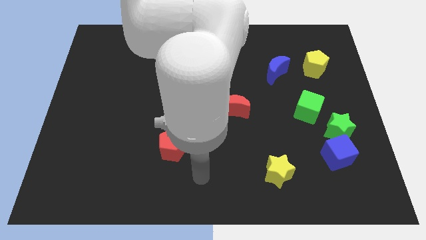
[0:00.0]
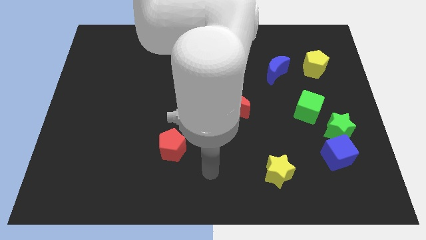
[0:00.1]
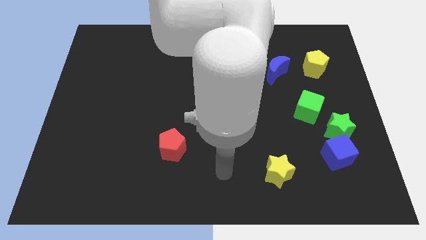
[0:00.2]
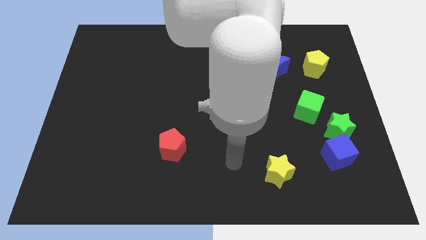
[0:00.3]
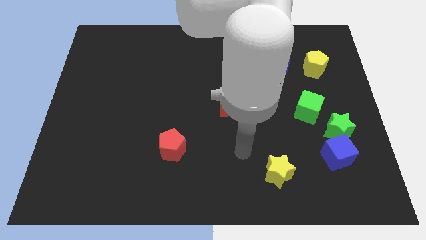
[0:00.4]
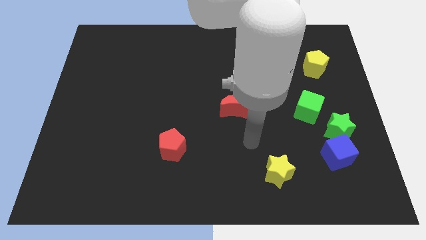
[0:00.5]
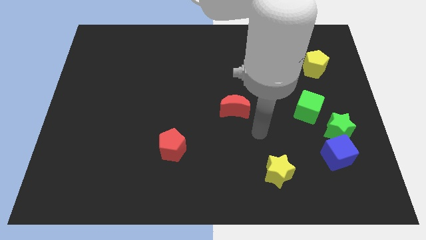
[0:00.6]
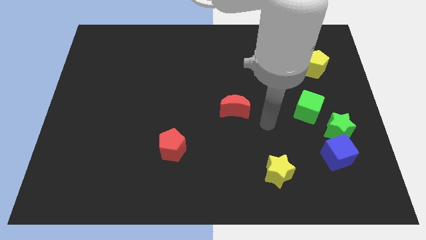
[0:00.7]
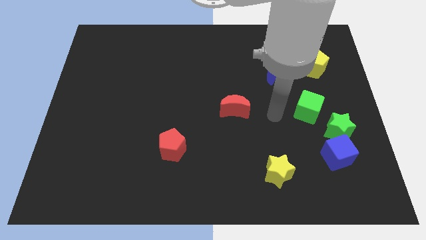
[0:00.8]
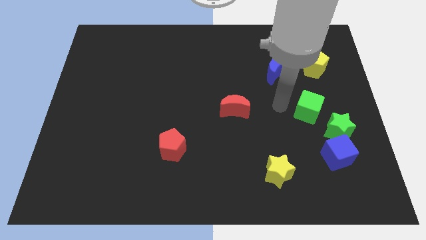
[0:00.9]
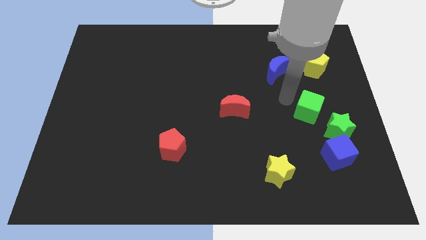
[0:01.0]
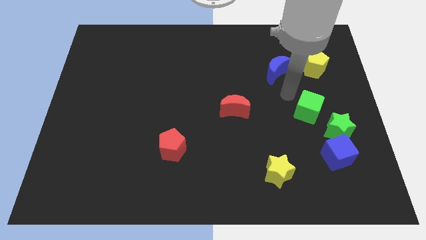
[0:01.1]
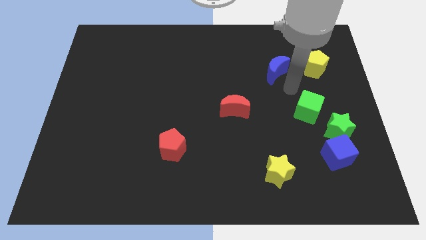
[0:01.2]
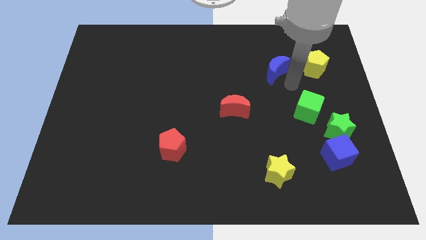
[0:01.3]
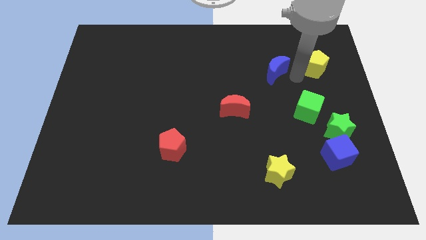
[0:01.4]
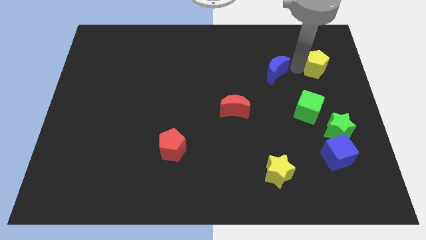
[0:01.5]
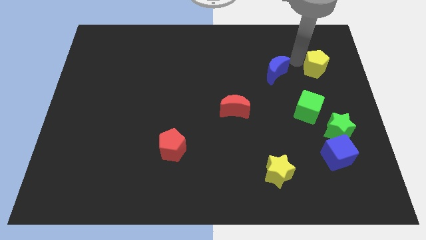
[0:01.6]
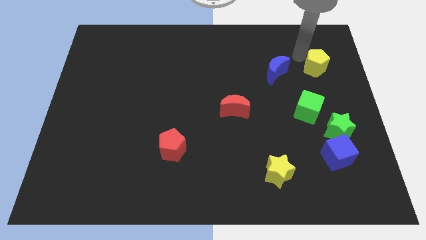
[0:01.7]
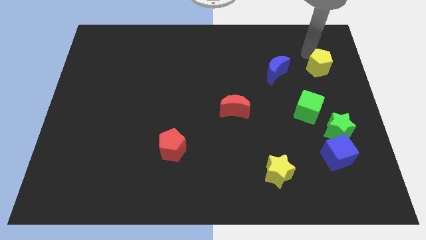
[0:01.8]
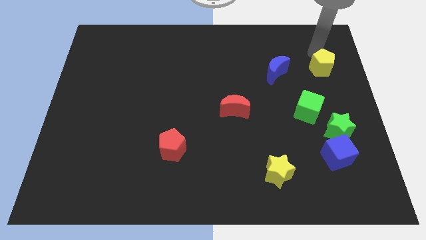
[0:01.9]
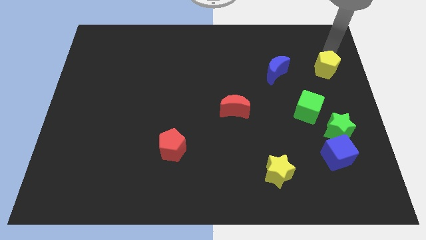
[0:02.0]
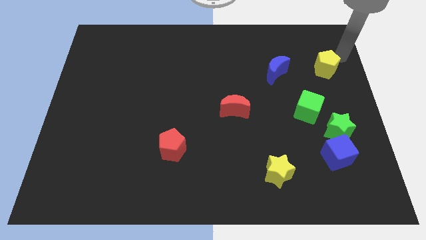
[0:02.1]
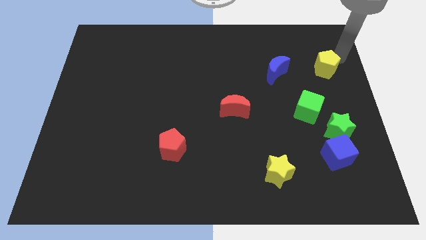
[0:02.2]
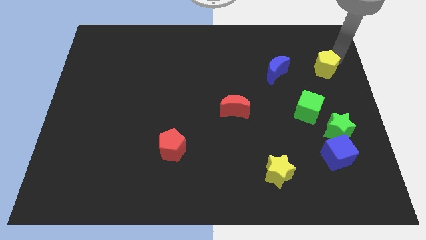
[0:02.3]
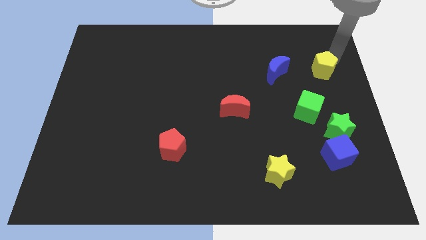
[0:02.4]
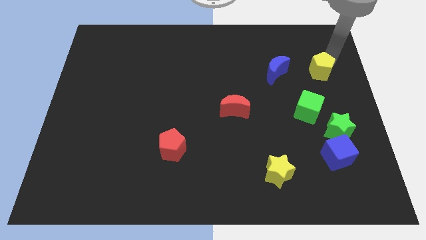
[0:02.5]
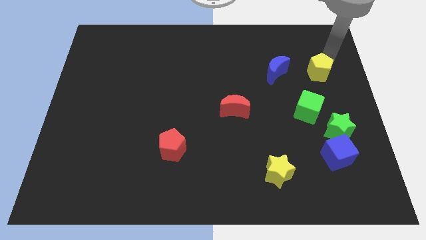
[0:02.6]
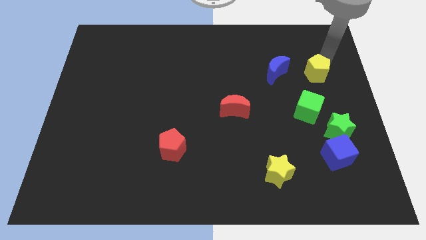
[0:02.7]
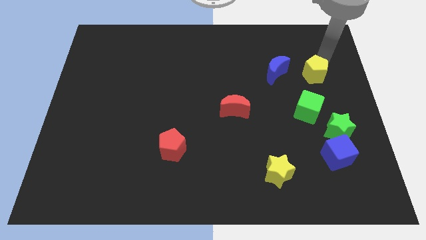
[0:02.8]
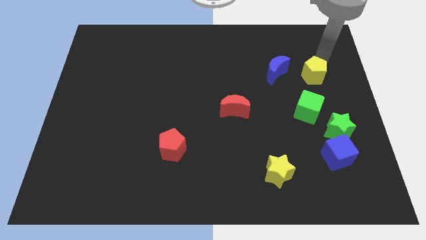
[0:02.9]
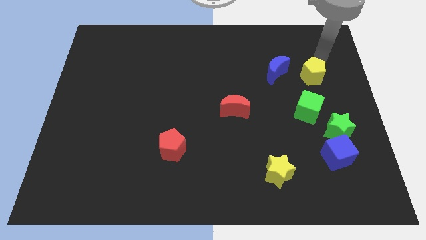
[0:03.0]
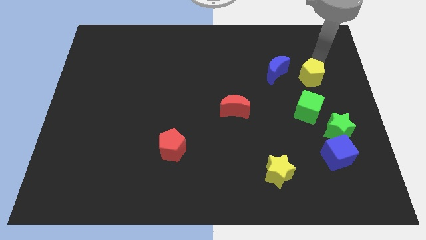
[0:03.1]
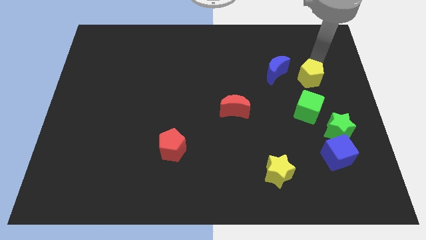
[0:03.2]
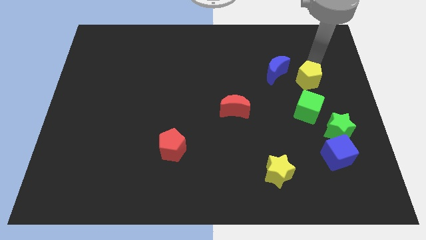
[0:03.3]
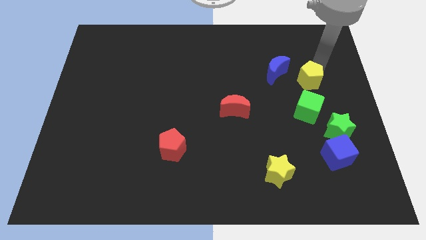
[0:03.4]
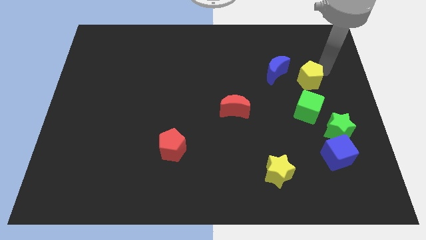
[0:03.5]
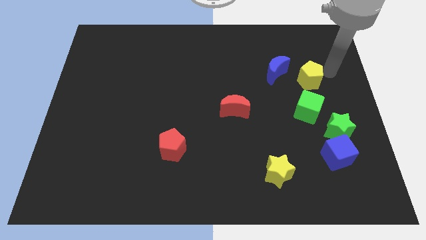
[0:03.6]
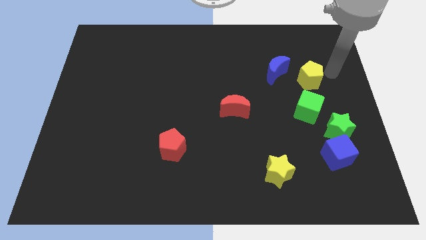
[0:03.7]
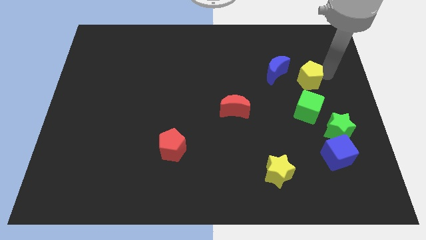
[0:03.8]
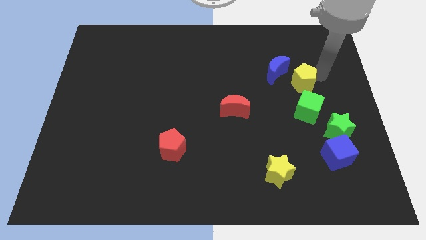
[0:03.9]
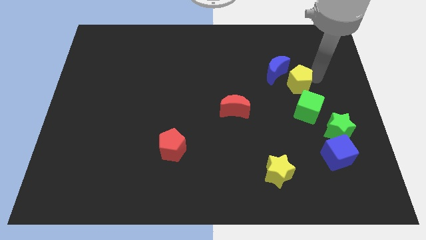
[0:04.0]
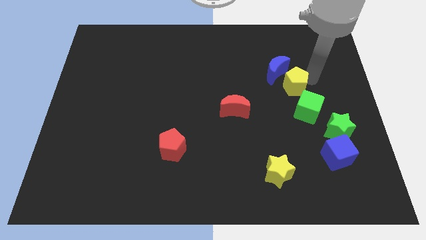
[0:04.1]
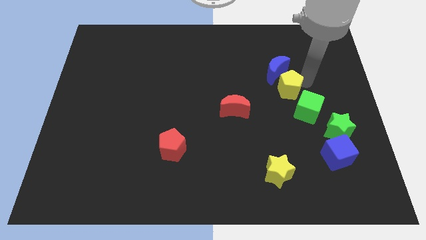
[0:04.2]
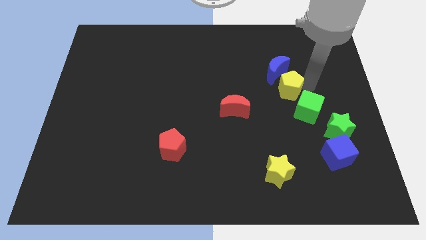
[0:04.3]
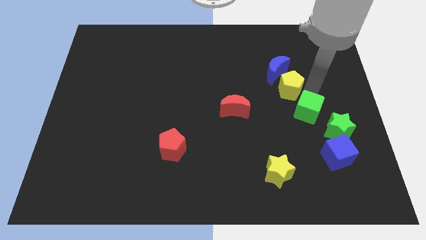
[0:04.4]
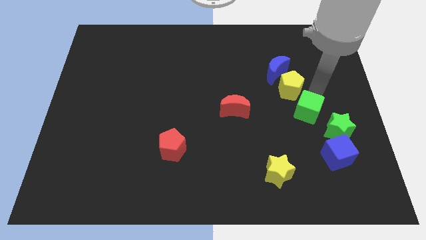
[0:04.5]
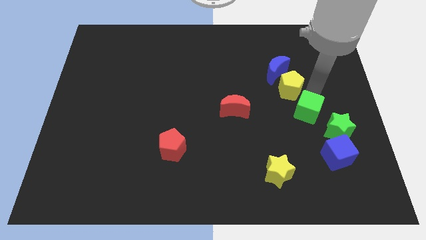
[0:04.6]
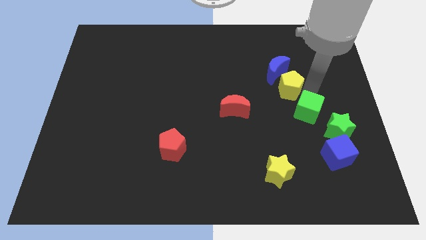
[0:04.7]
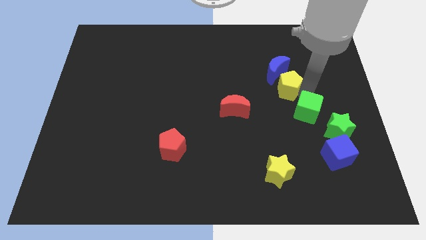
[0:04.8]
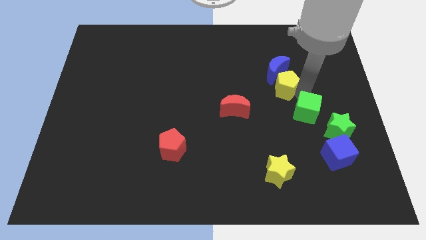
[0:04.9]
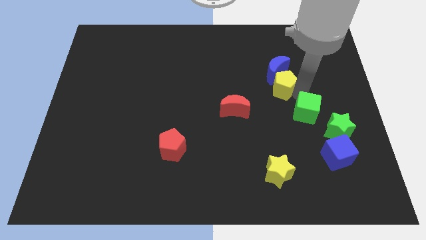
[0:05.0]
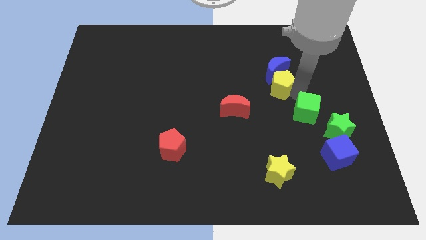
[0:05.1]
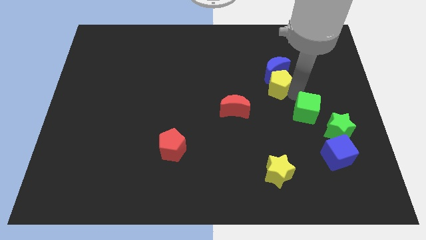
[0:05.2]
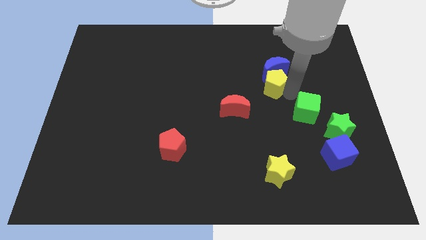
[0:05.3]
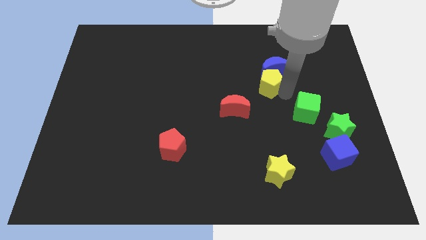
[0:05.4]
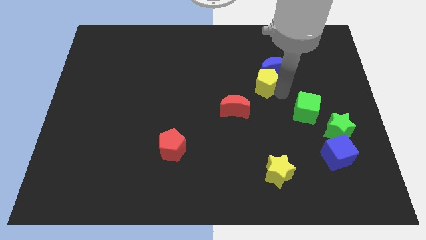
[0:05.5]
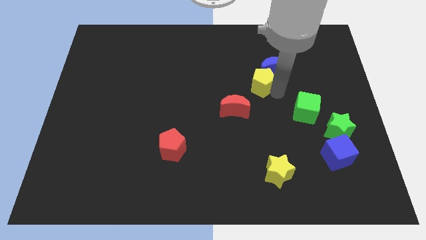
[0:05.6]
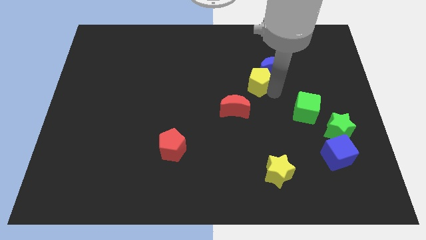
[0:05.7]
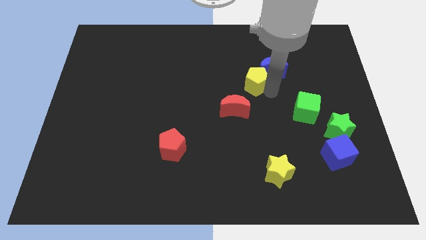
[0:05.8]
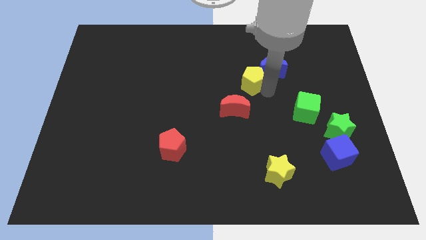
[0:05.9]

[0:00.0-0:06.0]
slide the yellow pentagon above the red moon
